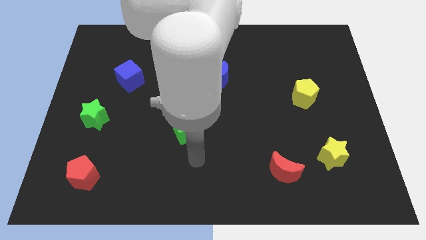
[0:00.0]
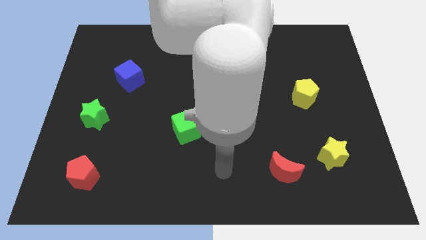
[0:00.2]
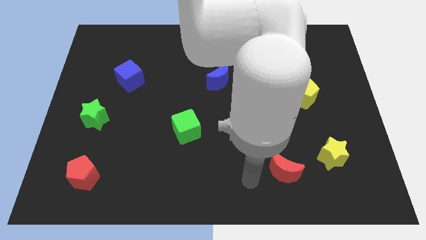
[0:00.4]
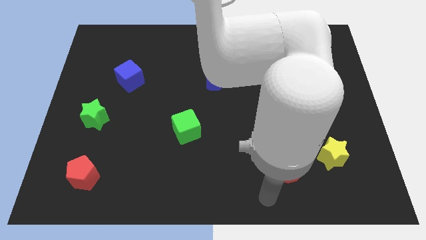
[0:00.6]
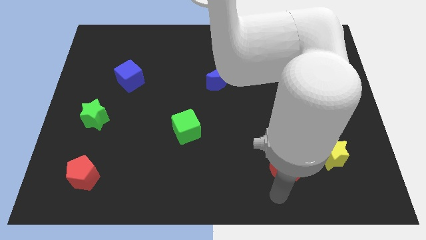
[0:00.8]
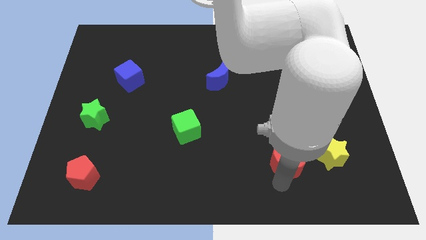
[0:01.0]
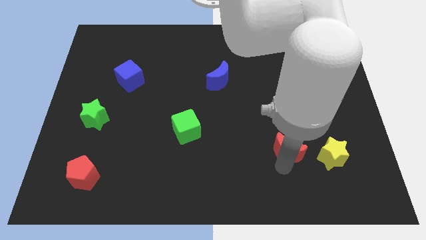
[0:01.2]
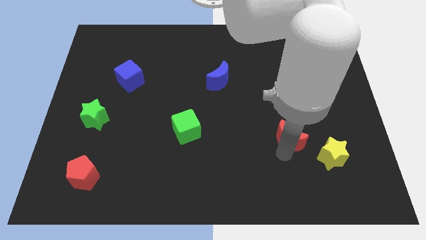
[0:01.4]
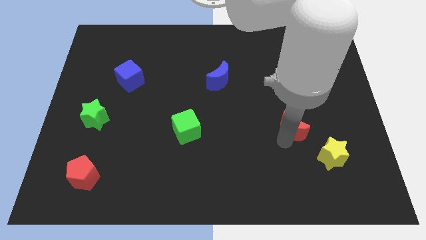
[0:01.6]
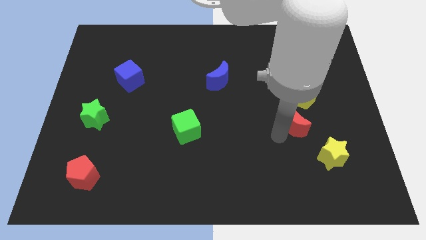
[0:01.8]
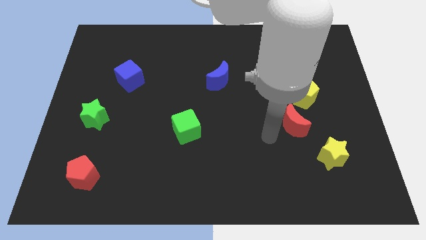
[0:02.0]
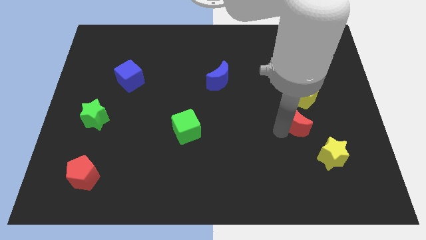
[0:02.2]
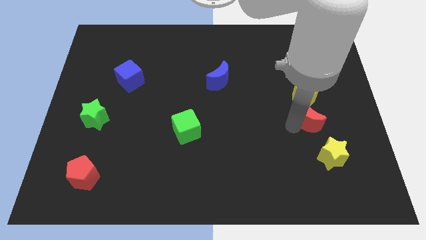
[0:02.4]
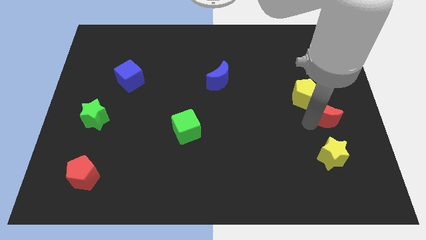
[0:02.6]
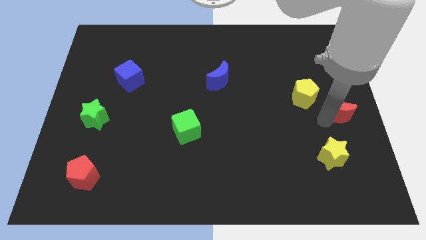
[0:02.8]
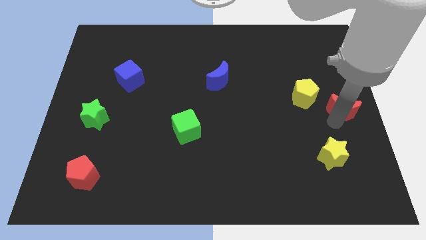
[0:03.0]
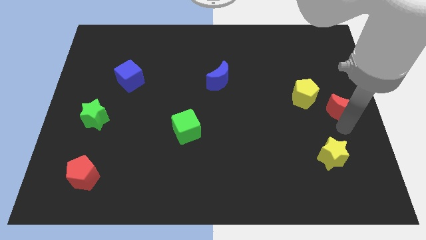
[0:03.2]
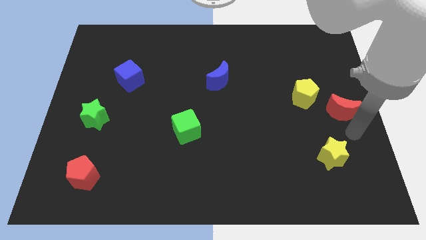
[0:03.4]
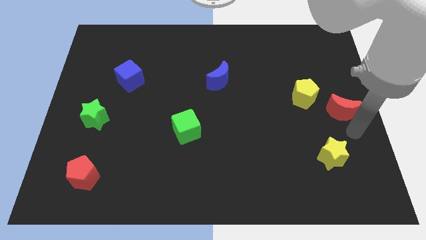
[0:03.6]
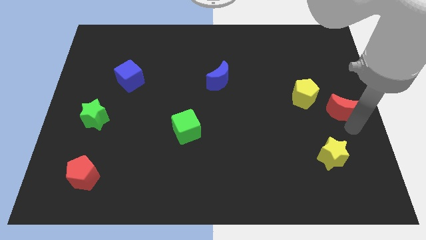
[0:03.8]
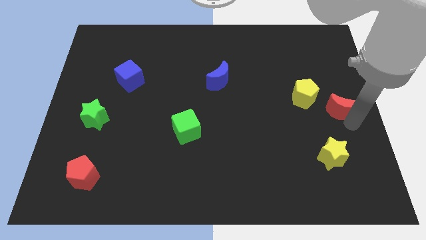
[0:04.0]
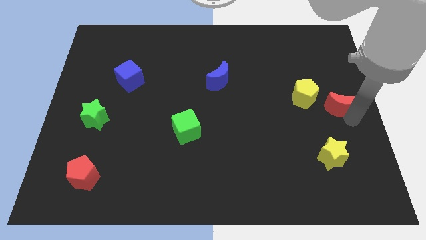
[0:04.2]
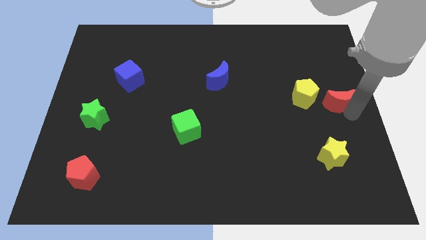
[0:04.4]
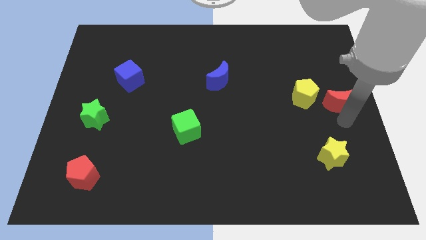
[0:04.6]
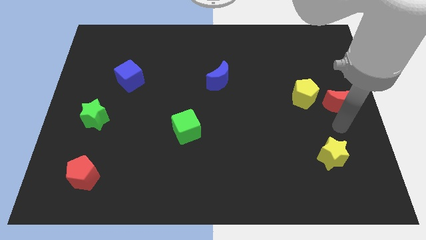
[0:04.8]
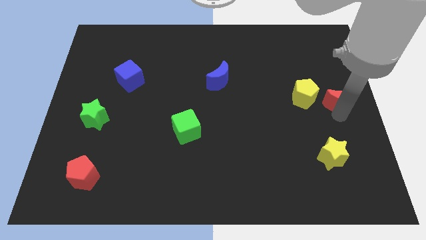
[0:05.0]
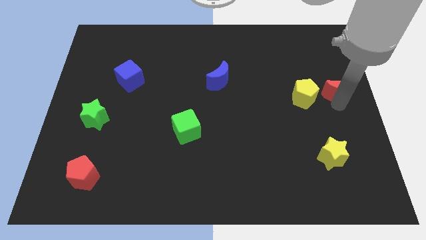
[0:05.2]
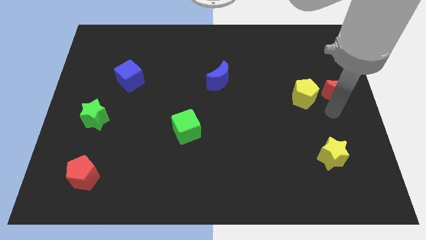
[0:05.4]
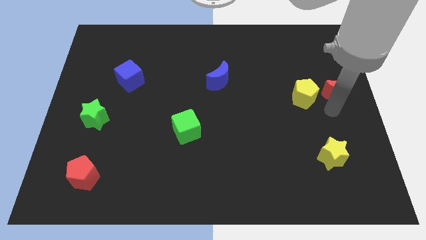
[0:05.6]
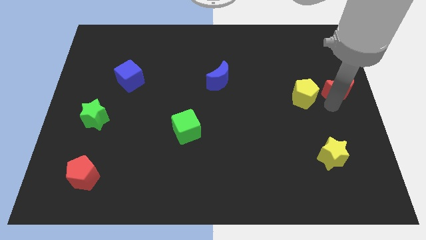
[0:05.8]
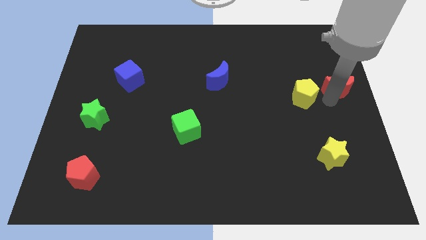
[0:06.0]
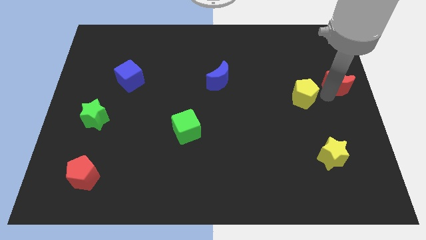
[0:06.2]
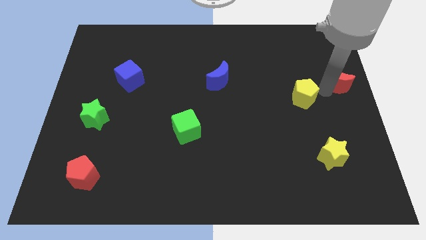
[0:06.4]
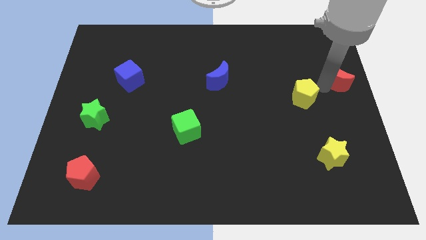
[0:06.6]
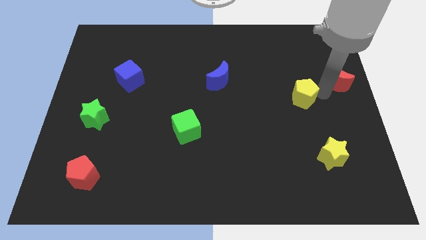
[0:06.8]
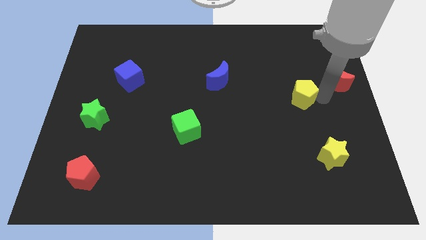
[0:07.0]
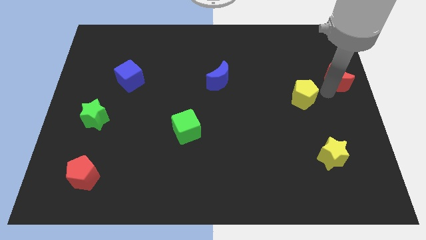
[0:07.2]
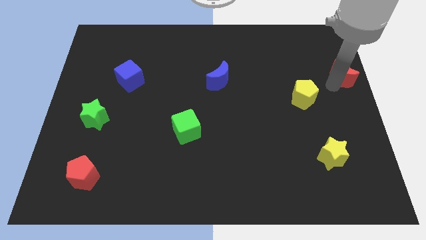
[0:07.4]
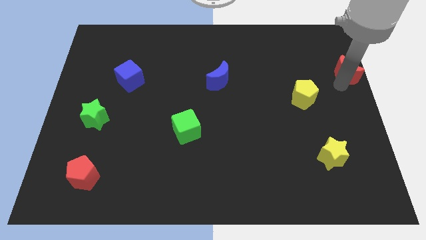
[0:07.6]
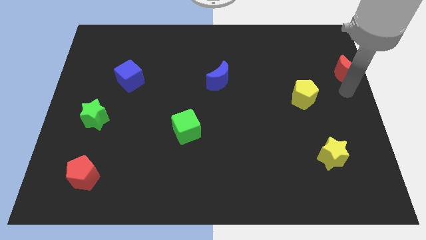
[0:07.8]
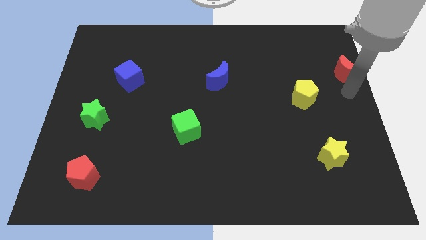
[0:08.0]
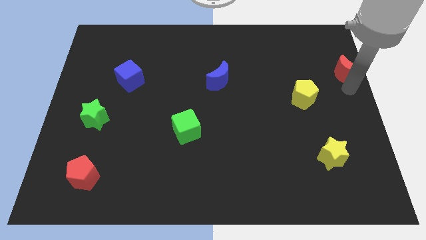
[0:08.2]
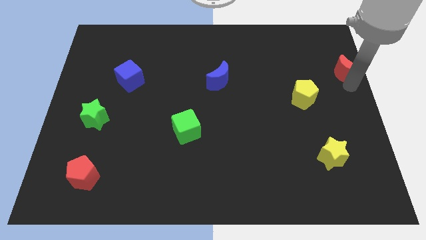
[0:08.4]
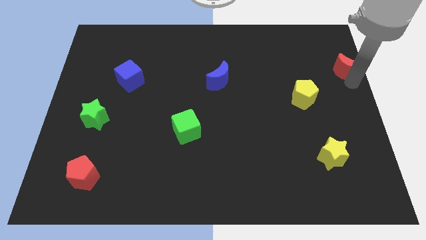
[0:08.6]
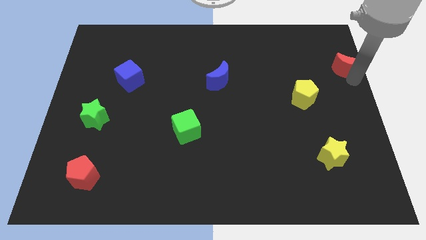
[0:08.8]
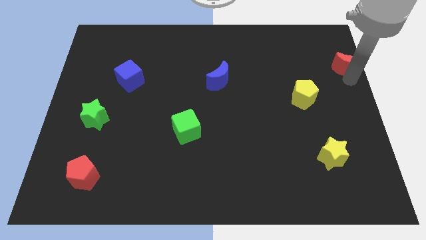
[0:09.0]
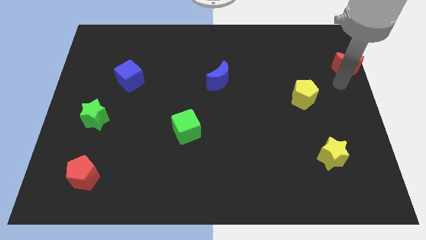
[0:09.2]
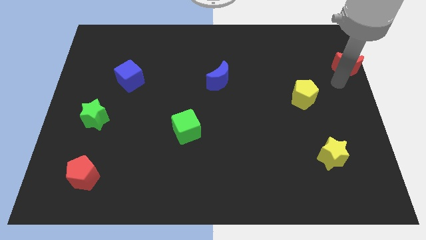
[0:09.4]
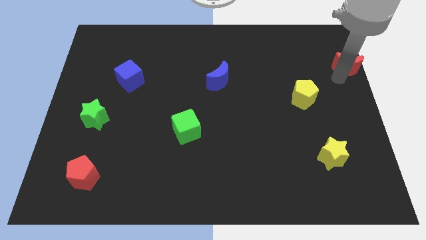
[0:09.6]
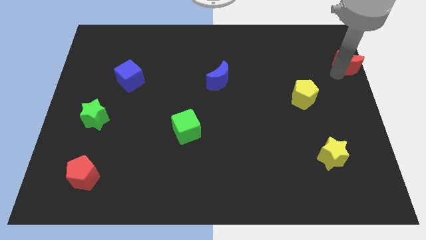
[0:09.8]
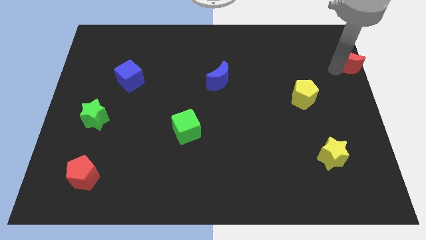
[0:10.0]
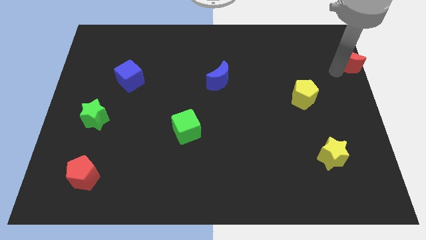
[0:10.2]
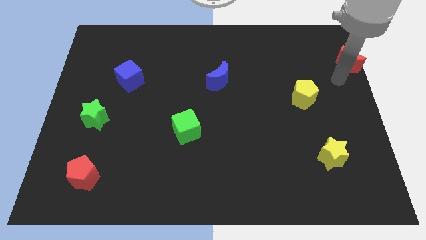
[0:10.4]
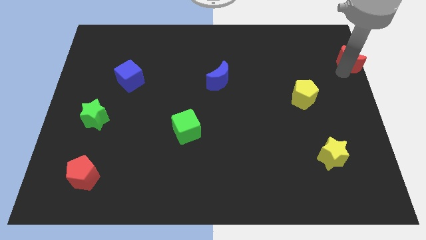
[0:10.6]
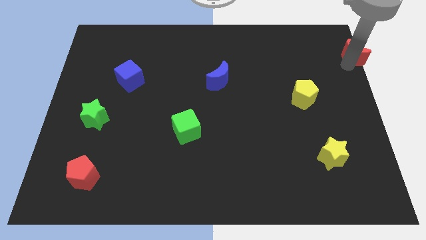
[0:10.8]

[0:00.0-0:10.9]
push the red moon to the top right of the board

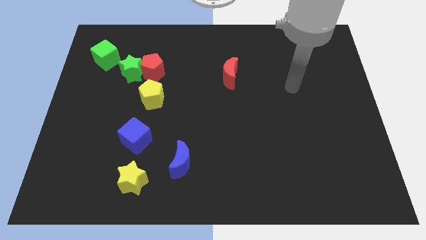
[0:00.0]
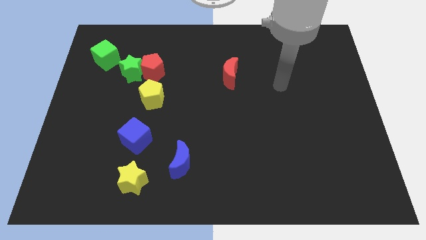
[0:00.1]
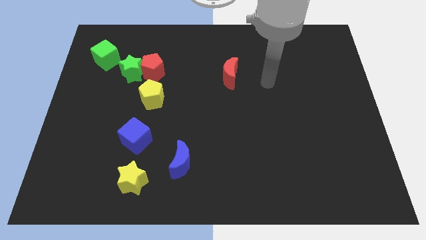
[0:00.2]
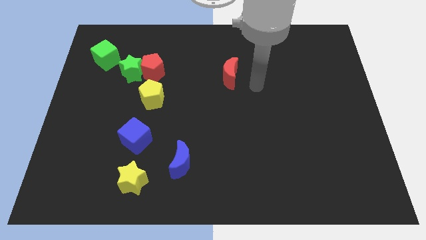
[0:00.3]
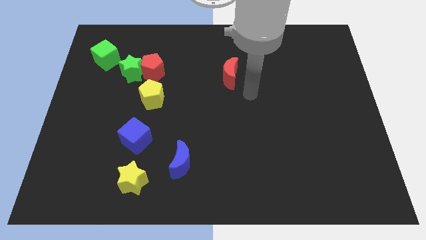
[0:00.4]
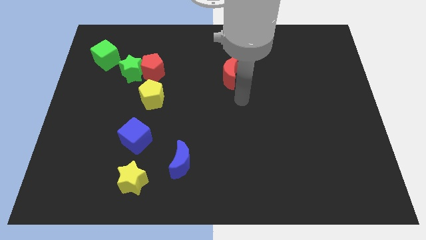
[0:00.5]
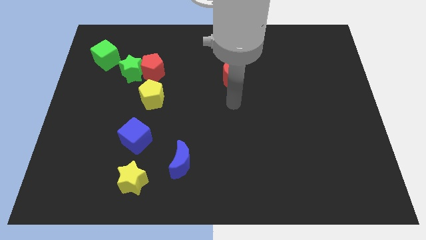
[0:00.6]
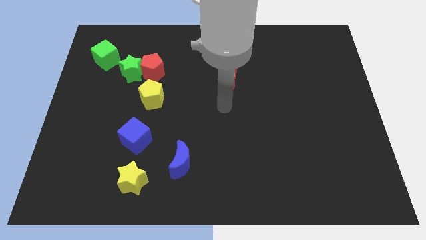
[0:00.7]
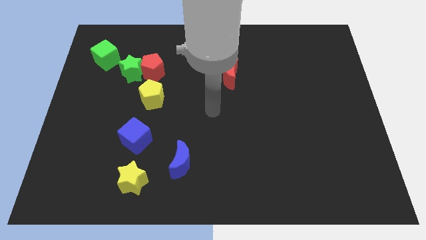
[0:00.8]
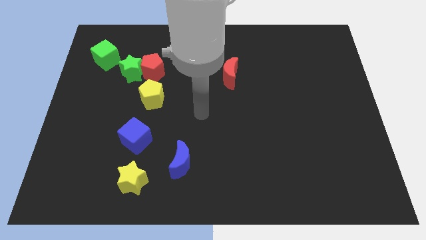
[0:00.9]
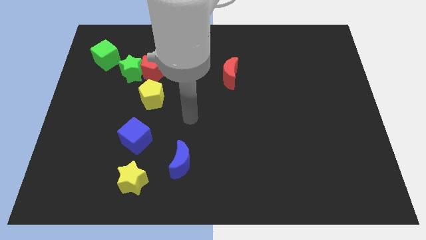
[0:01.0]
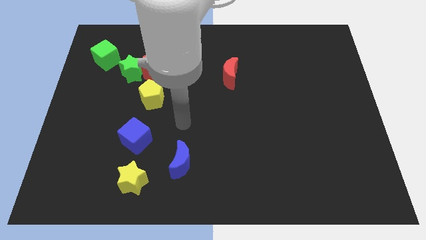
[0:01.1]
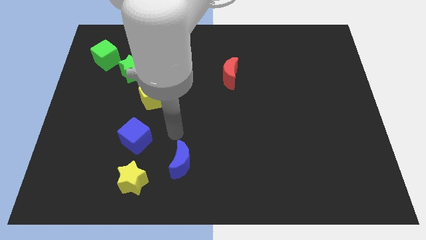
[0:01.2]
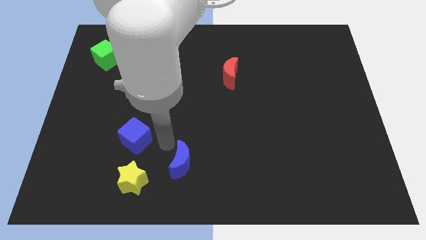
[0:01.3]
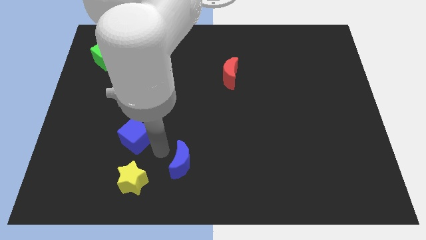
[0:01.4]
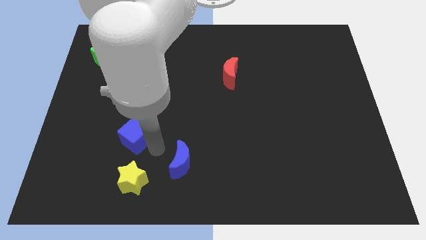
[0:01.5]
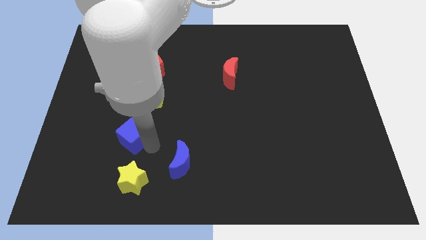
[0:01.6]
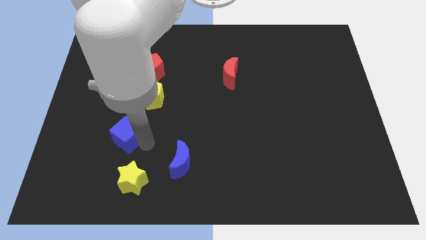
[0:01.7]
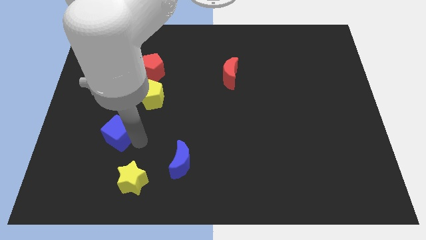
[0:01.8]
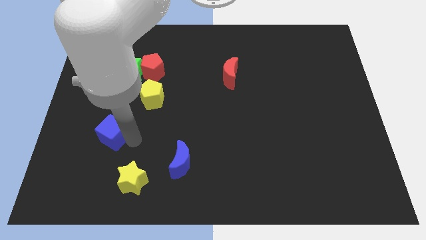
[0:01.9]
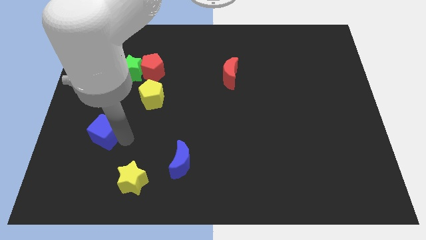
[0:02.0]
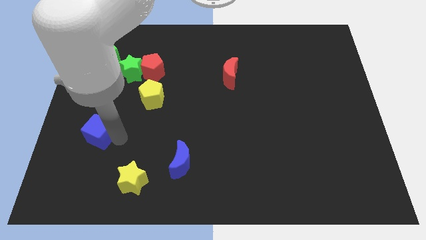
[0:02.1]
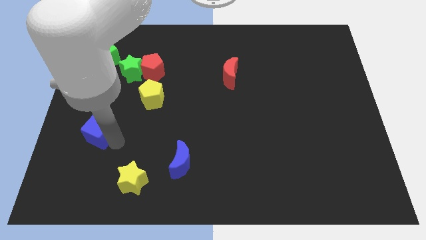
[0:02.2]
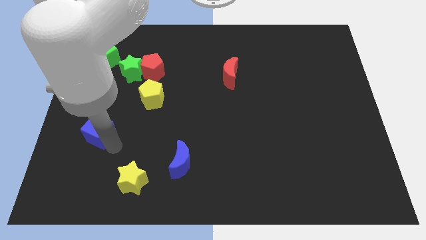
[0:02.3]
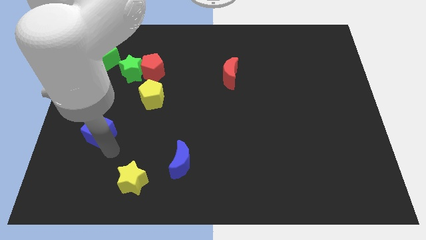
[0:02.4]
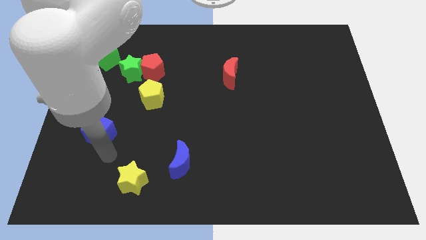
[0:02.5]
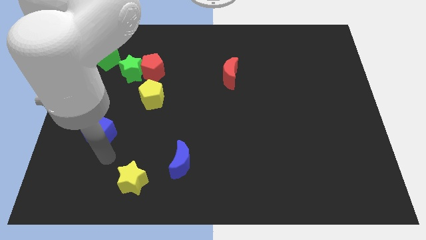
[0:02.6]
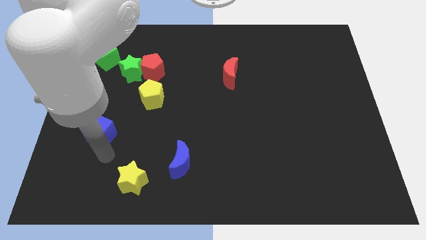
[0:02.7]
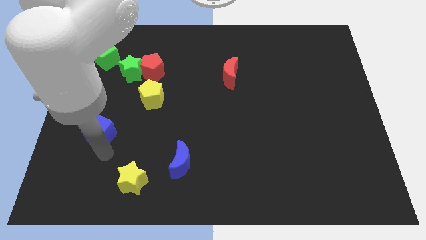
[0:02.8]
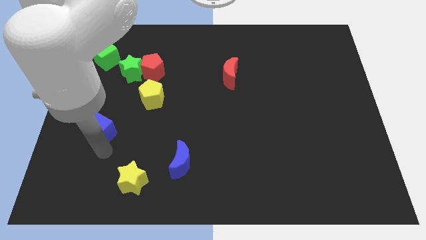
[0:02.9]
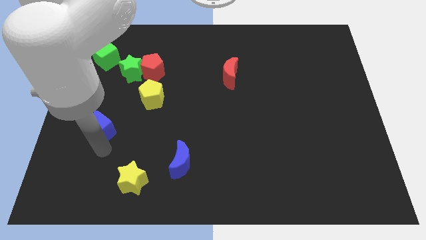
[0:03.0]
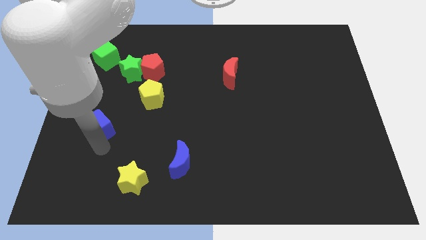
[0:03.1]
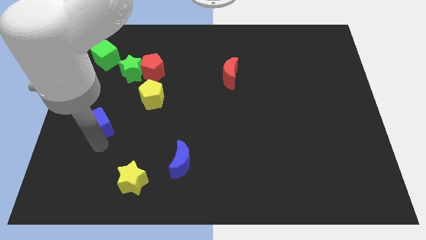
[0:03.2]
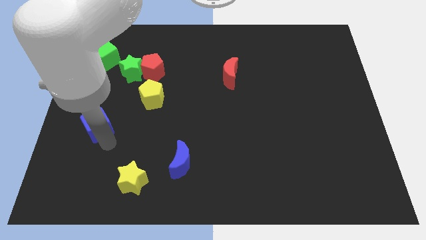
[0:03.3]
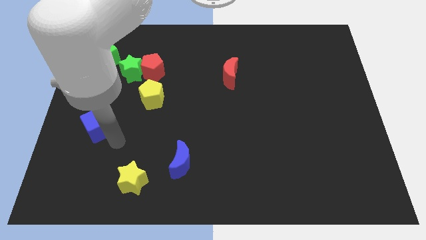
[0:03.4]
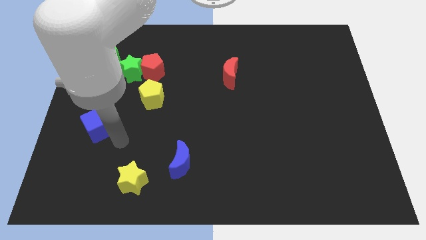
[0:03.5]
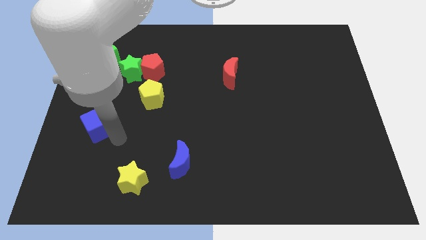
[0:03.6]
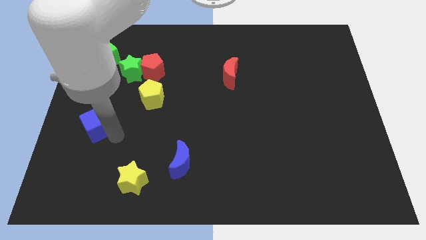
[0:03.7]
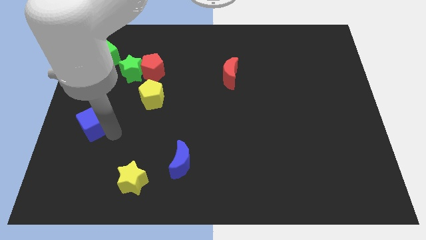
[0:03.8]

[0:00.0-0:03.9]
slide the blue cube to the left side
